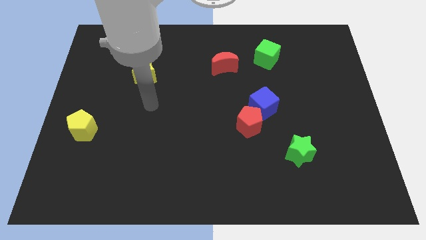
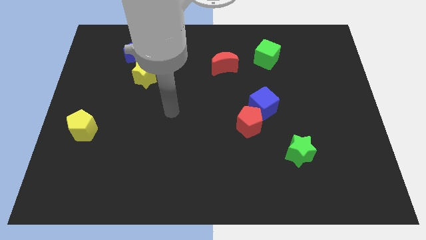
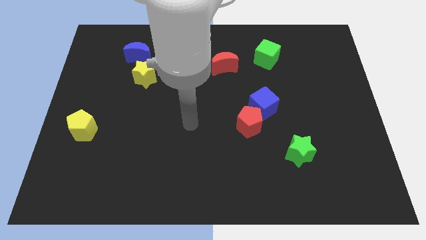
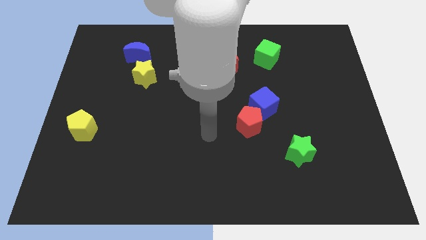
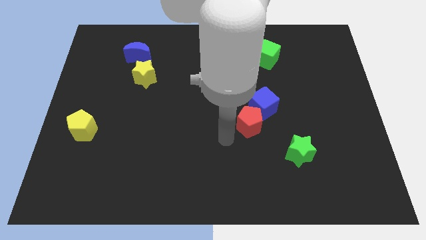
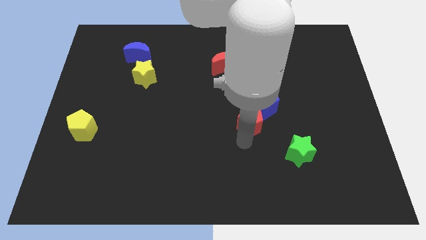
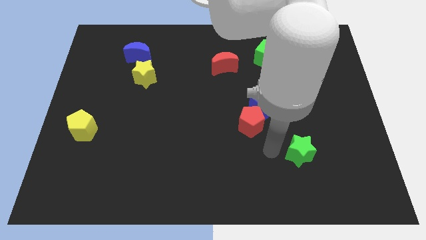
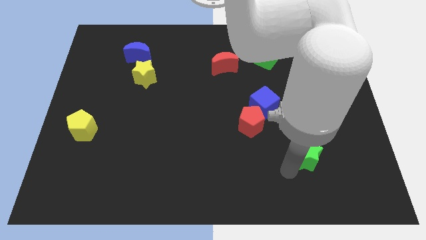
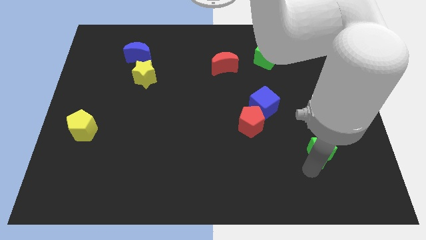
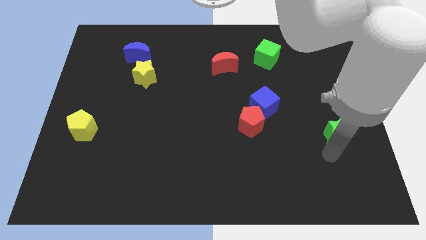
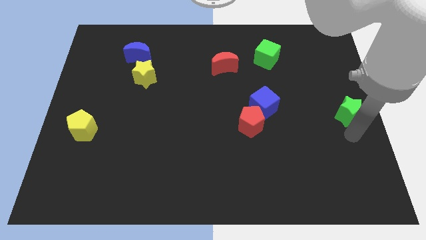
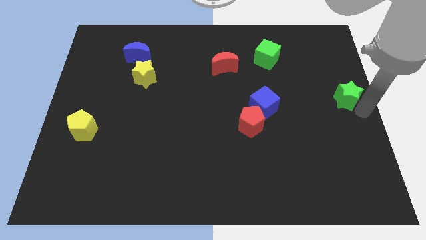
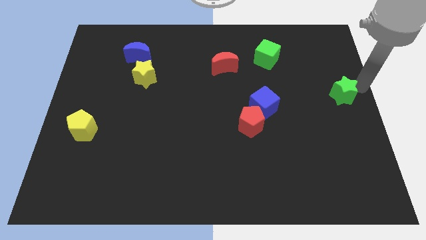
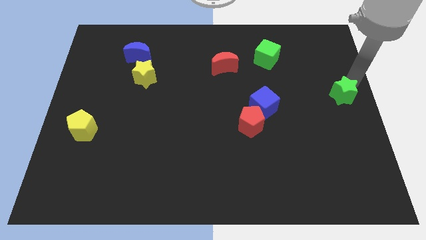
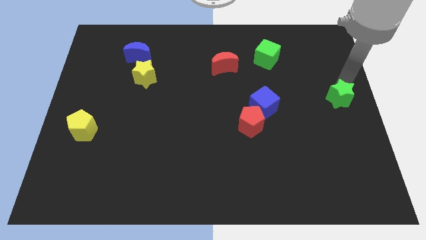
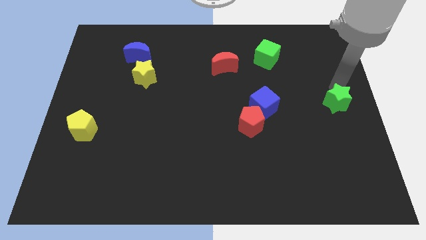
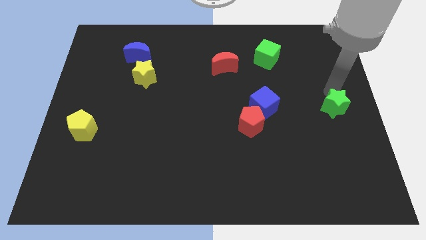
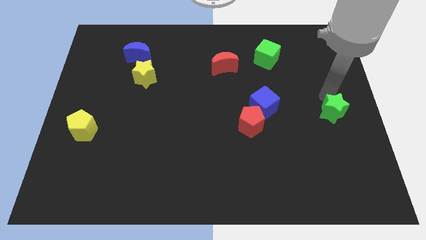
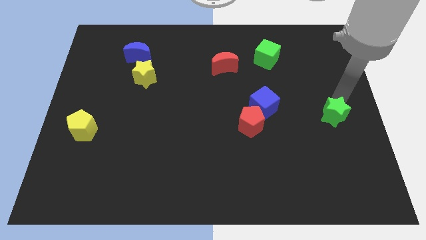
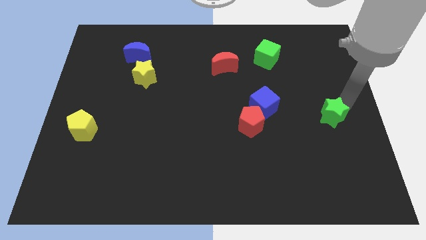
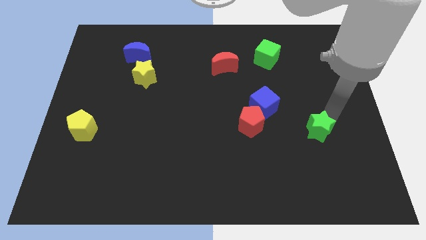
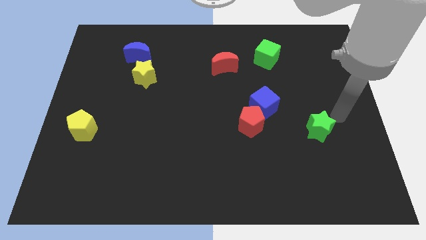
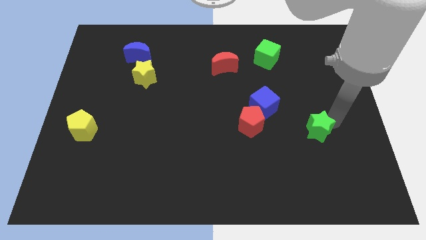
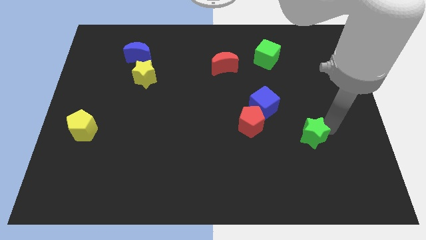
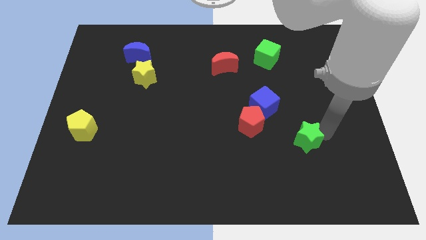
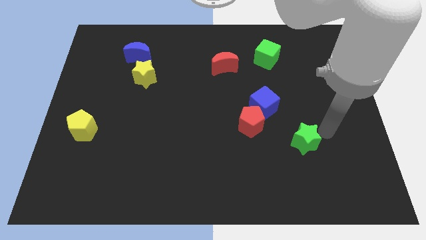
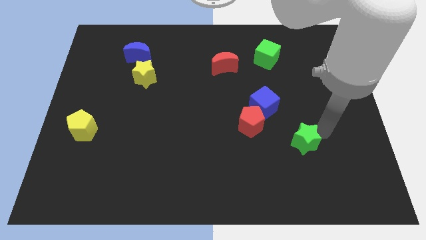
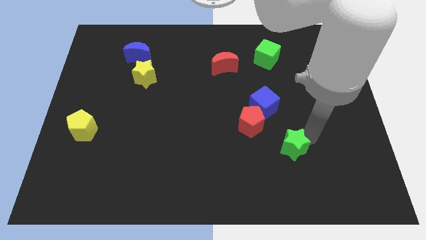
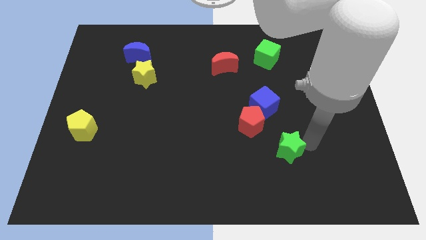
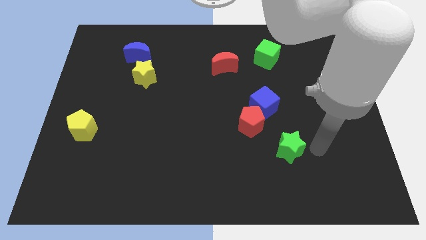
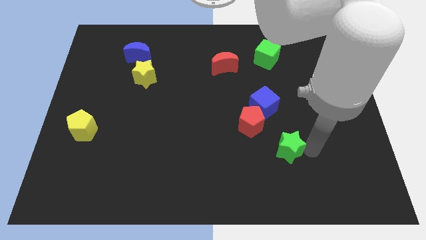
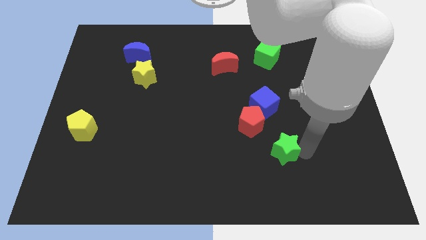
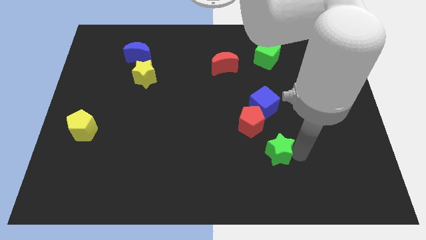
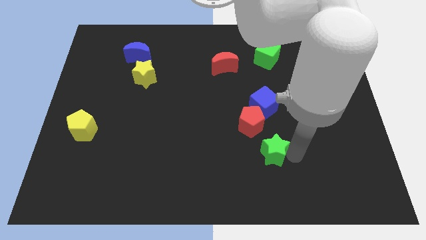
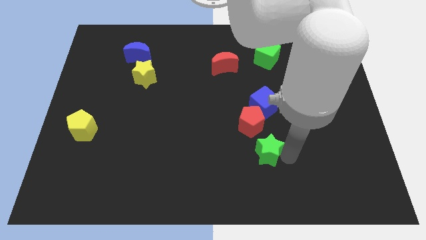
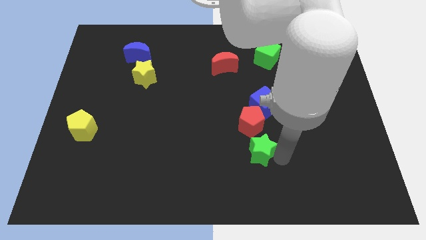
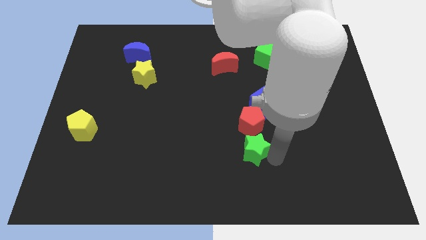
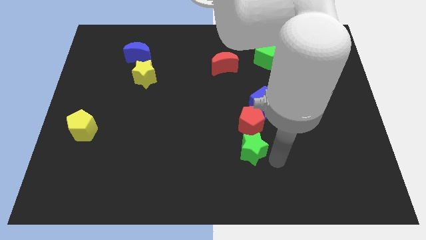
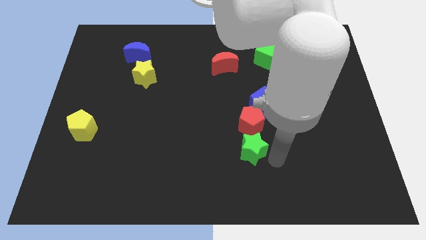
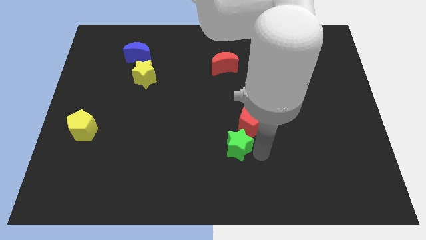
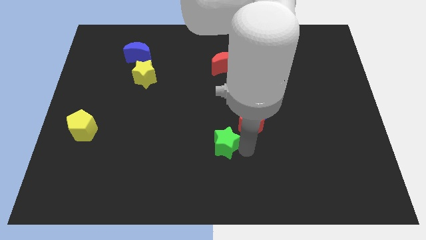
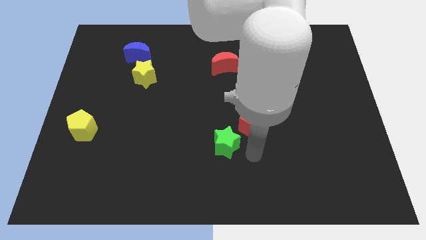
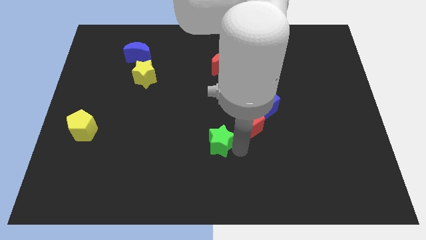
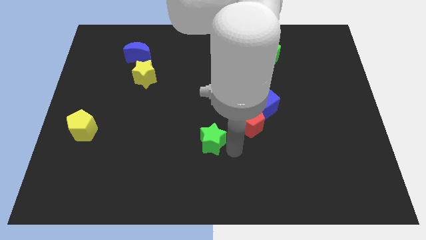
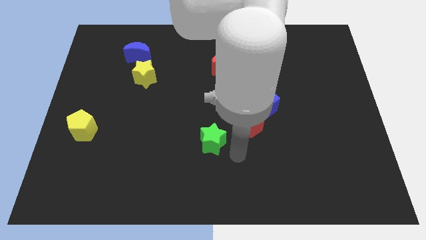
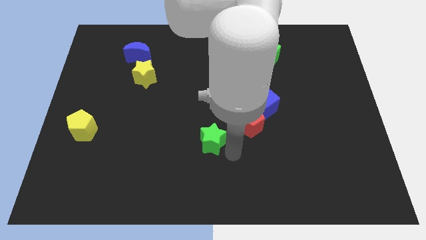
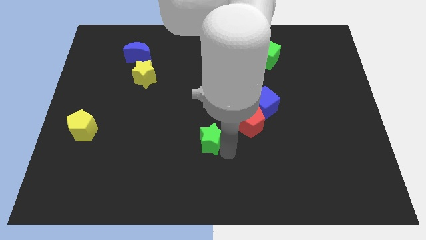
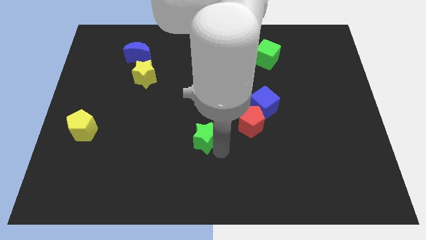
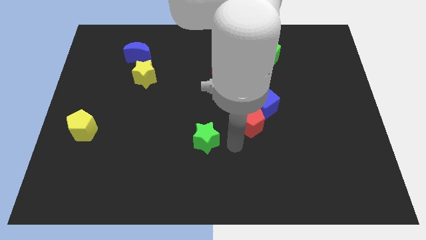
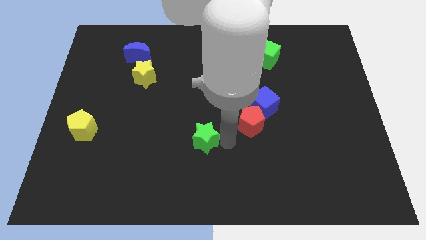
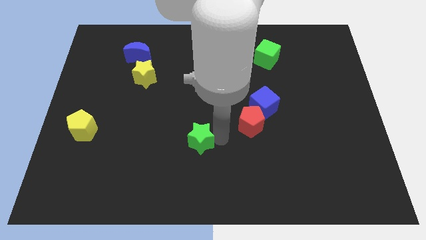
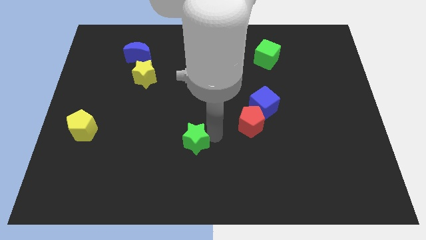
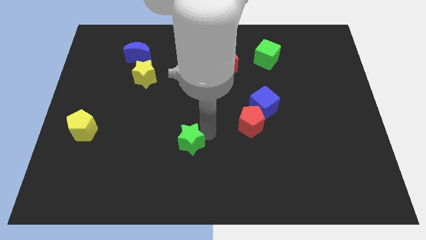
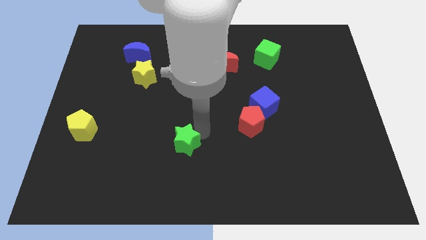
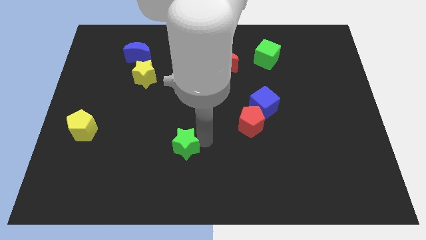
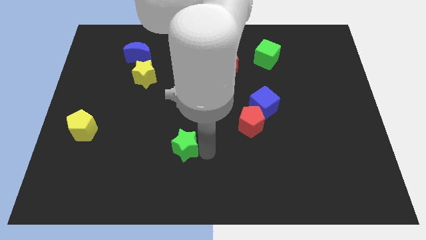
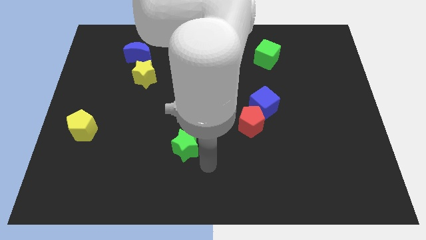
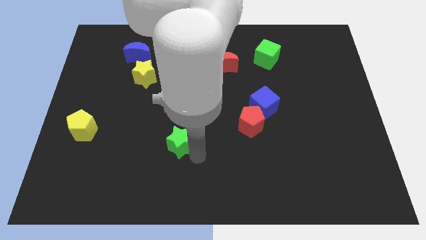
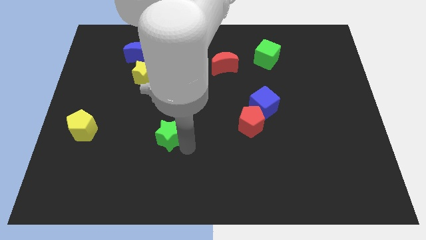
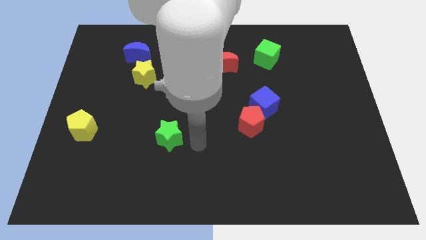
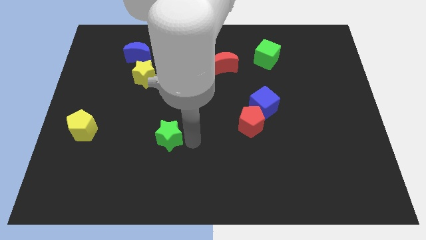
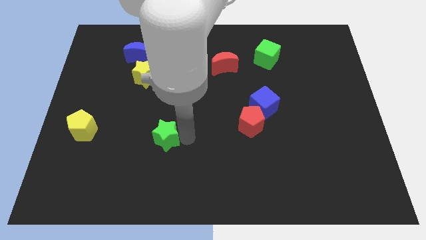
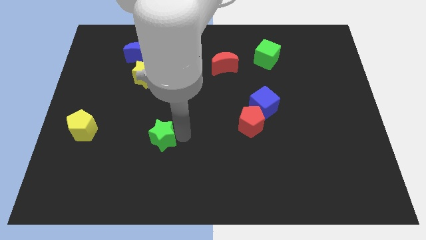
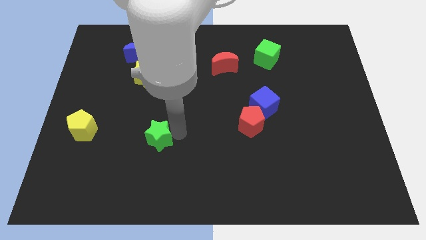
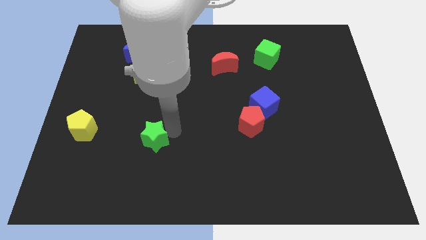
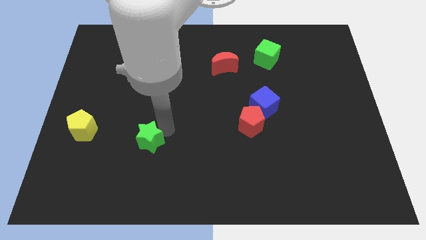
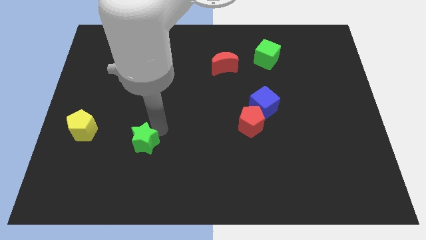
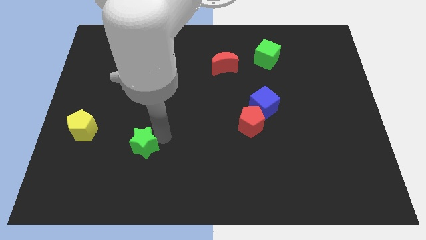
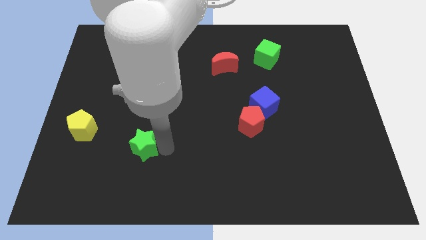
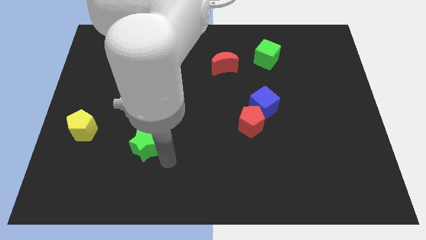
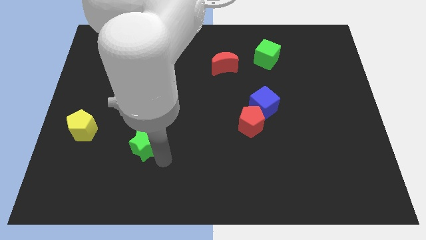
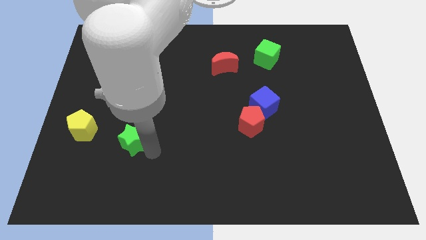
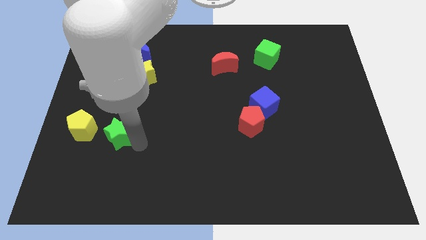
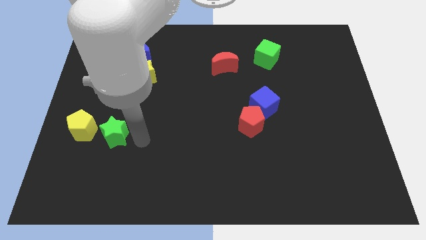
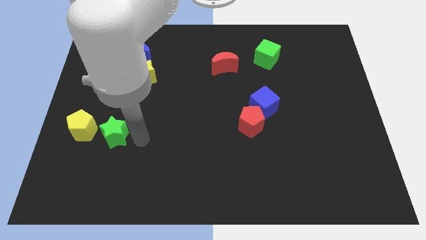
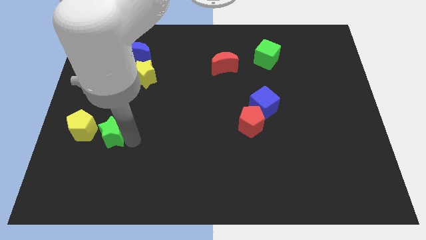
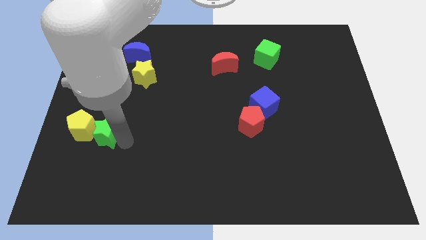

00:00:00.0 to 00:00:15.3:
slide the green star towards the yellow pentagon
